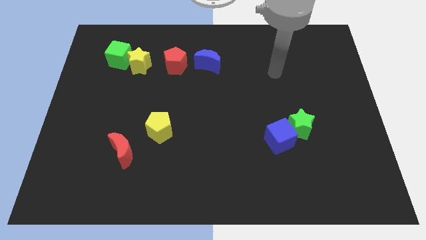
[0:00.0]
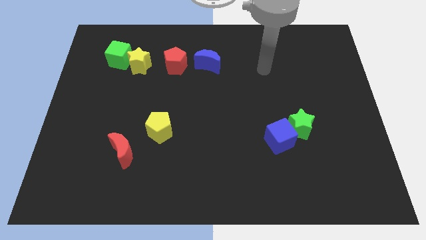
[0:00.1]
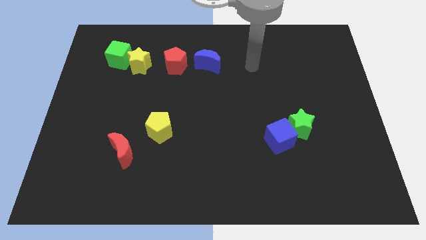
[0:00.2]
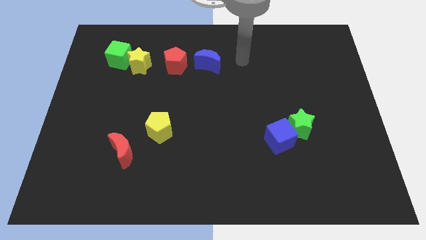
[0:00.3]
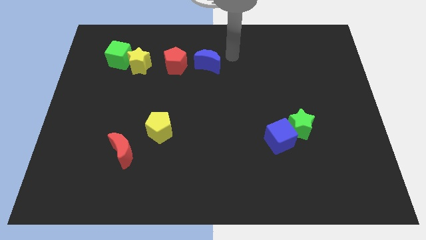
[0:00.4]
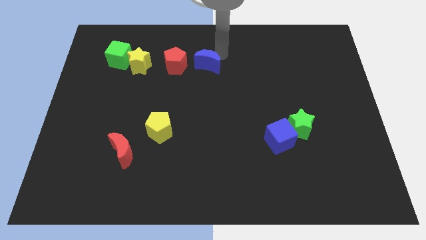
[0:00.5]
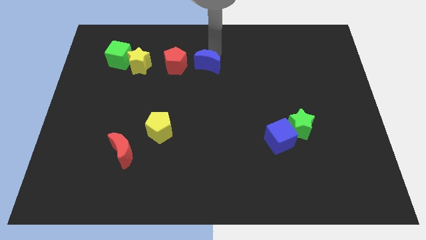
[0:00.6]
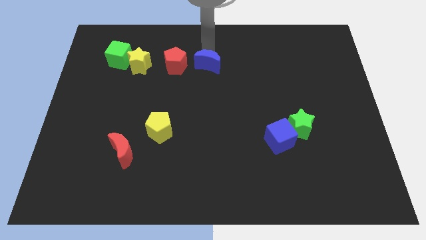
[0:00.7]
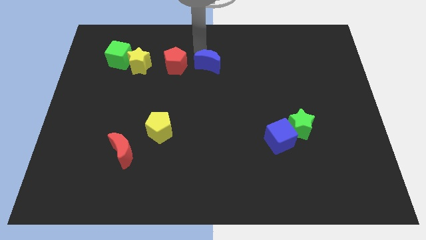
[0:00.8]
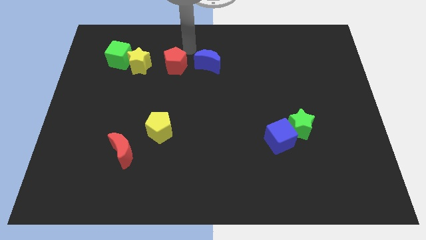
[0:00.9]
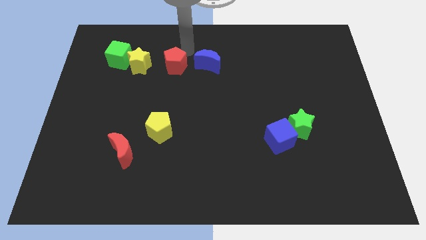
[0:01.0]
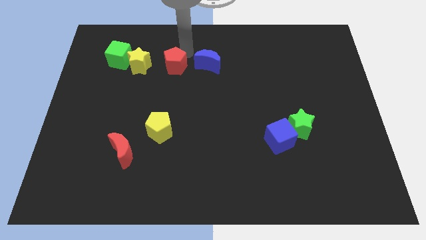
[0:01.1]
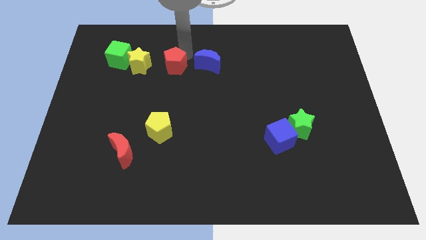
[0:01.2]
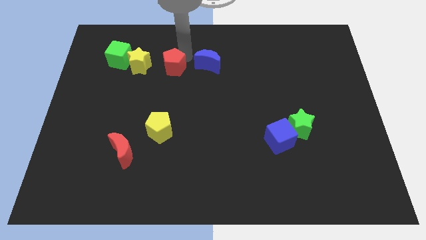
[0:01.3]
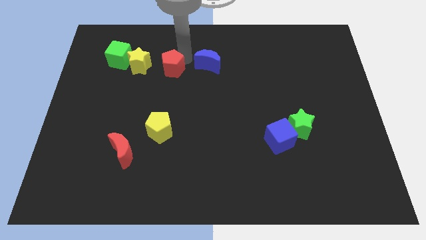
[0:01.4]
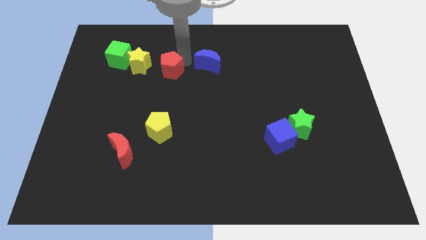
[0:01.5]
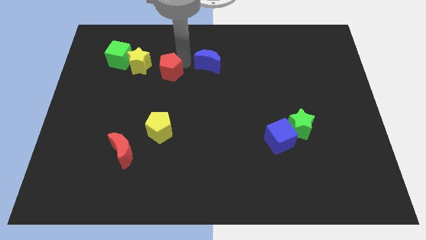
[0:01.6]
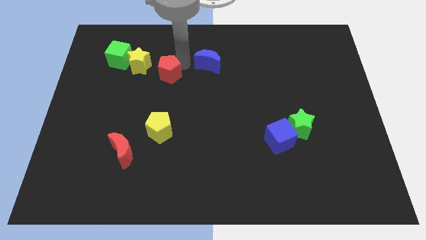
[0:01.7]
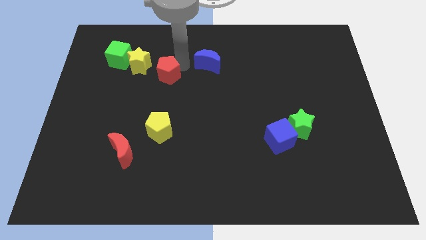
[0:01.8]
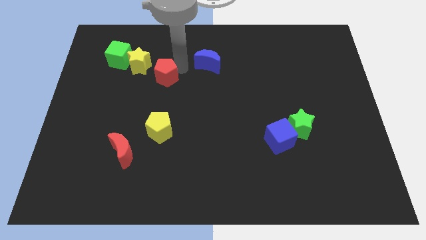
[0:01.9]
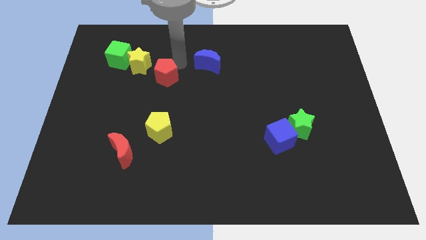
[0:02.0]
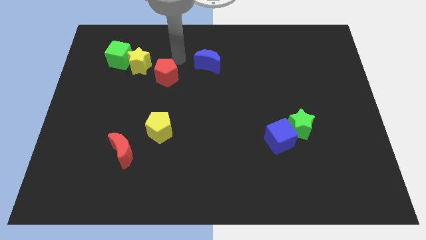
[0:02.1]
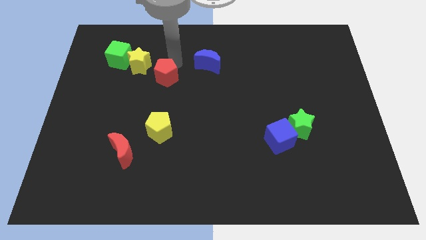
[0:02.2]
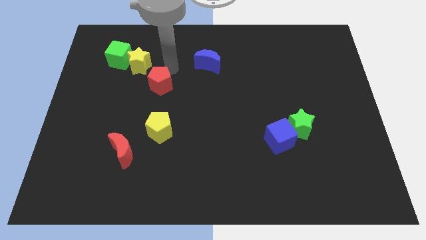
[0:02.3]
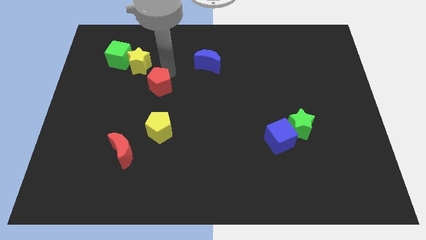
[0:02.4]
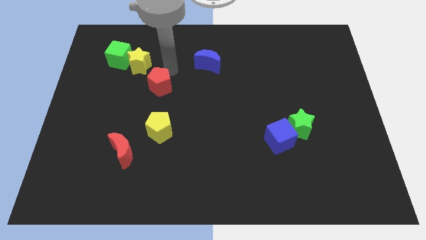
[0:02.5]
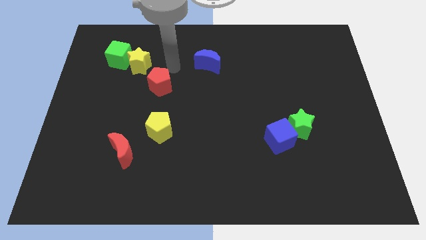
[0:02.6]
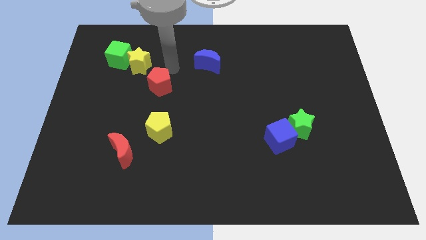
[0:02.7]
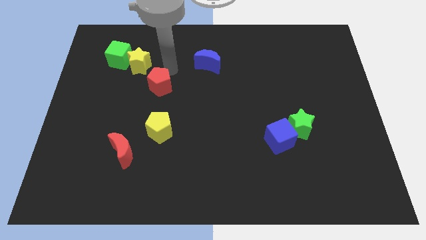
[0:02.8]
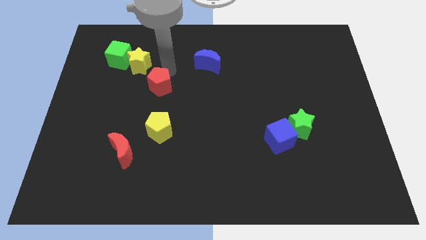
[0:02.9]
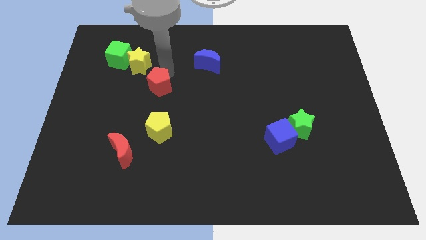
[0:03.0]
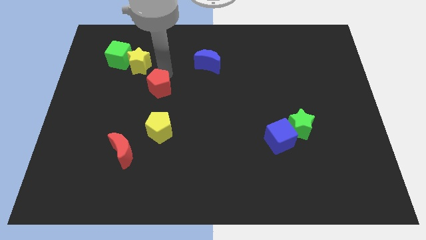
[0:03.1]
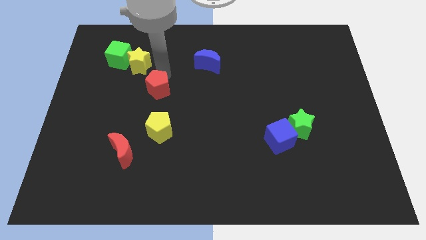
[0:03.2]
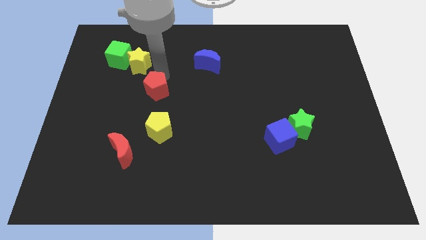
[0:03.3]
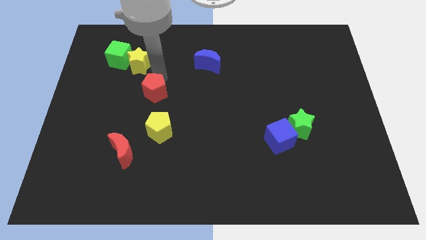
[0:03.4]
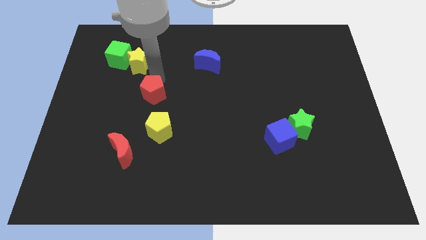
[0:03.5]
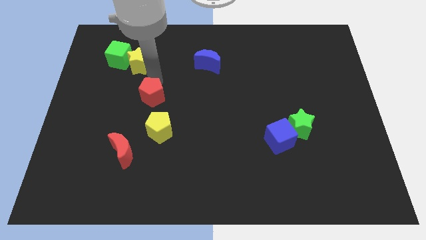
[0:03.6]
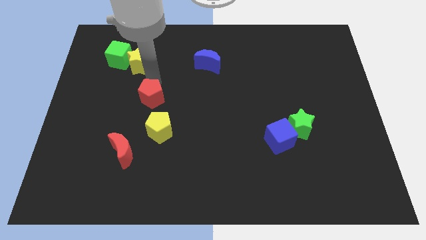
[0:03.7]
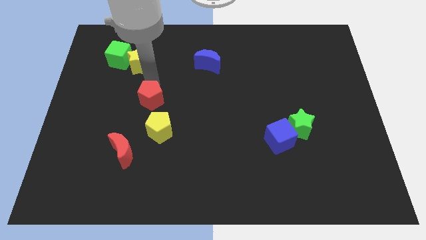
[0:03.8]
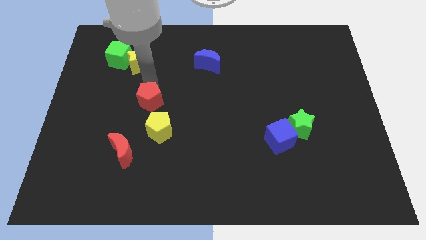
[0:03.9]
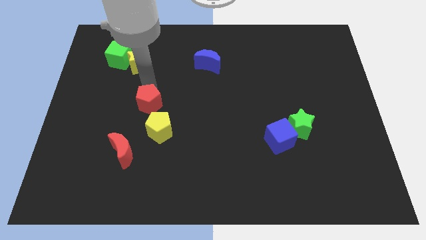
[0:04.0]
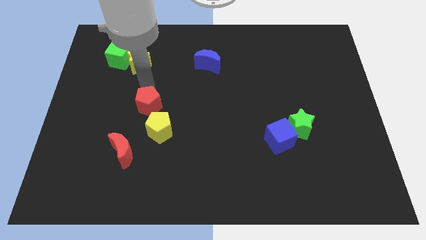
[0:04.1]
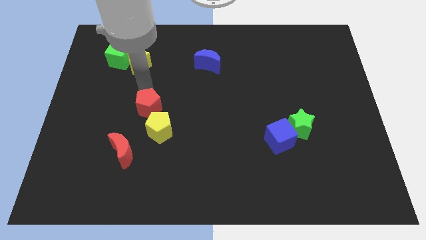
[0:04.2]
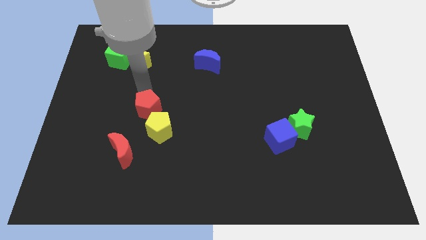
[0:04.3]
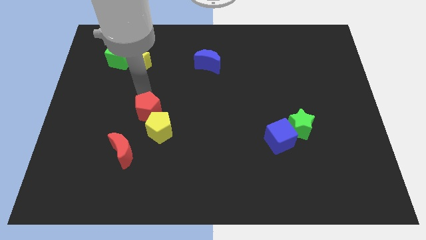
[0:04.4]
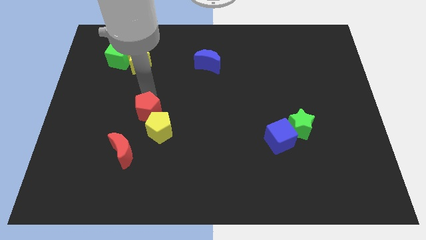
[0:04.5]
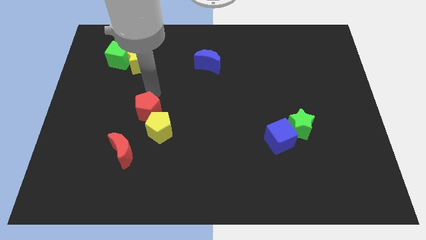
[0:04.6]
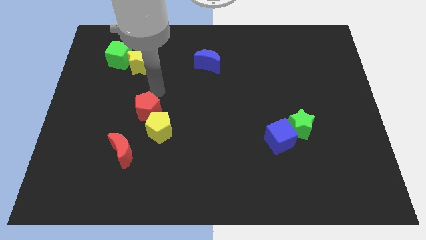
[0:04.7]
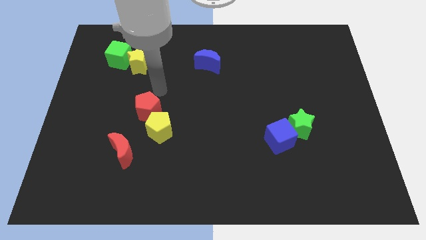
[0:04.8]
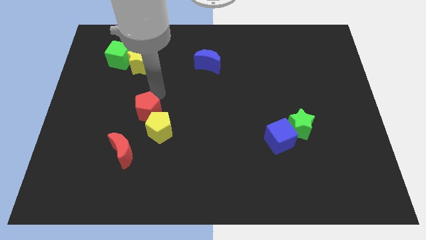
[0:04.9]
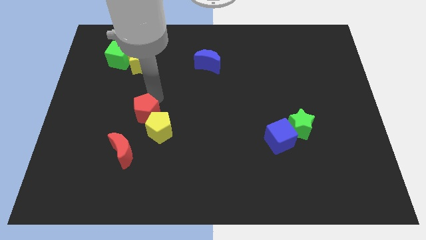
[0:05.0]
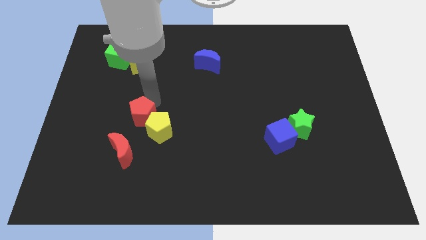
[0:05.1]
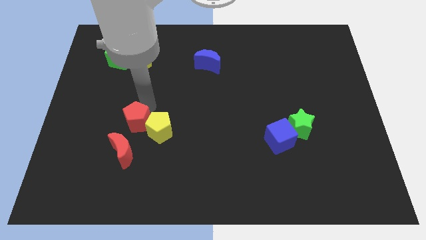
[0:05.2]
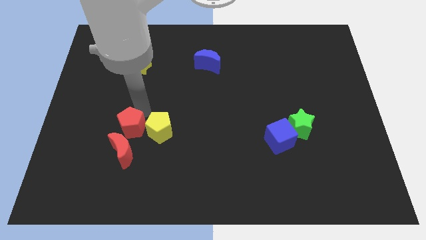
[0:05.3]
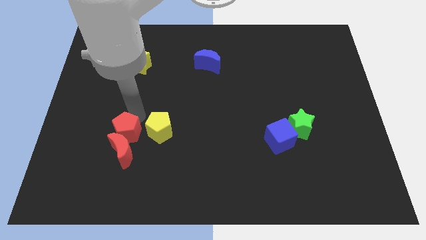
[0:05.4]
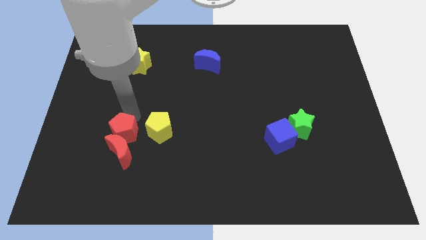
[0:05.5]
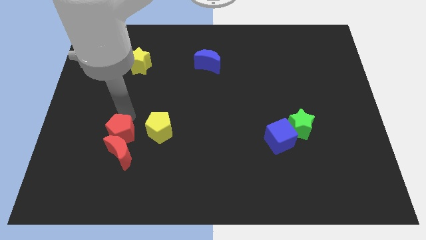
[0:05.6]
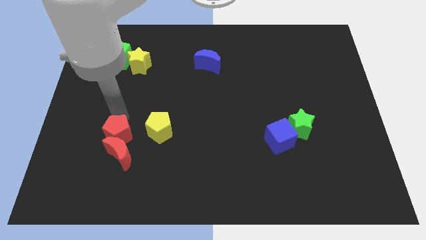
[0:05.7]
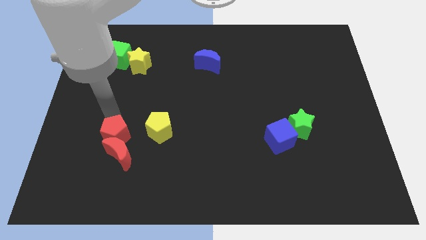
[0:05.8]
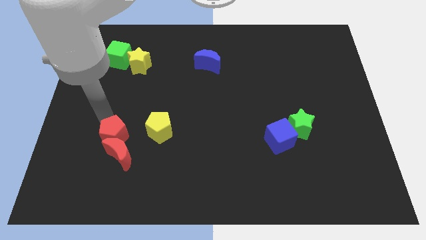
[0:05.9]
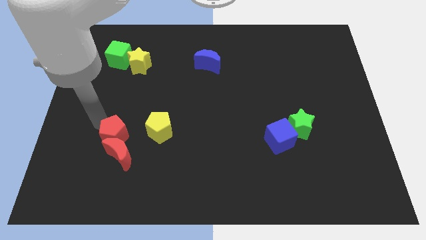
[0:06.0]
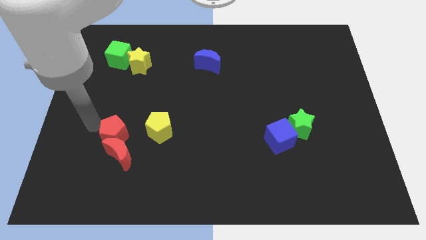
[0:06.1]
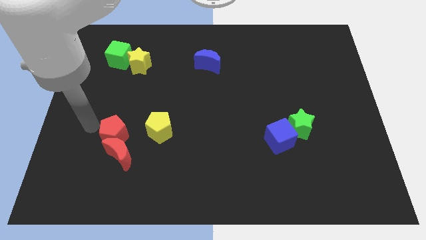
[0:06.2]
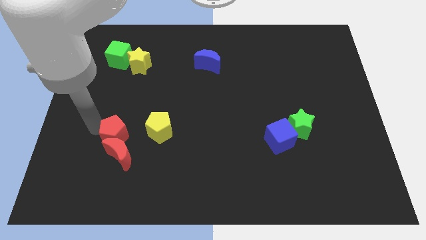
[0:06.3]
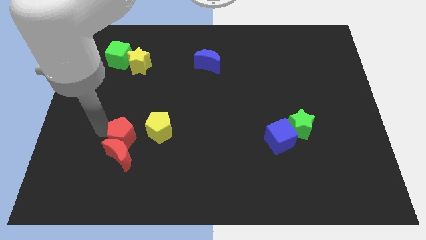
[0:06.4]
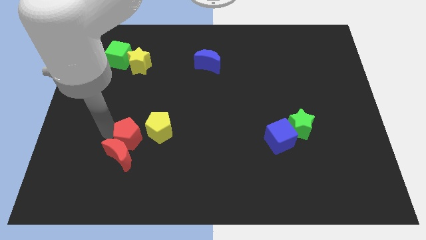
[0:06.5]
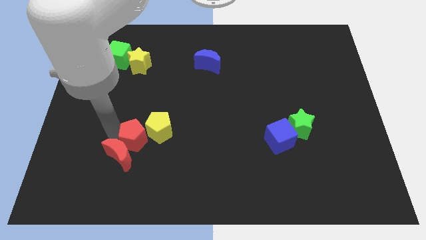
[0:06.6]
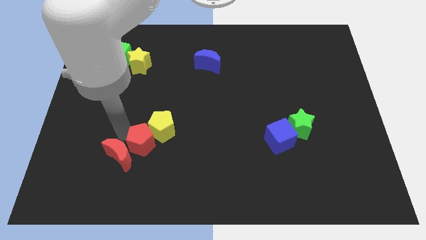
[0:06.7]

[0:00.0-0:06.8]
move the red pentagon below the yellow pentagon
